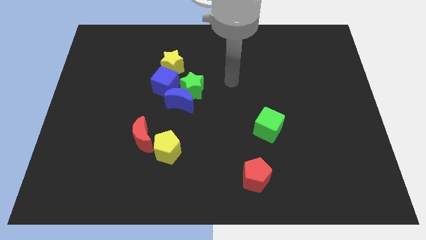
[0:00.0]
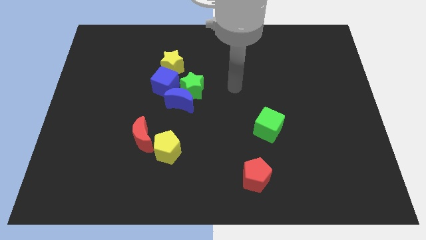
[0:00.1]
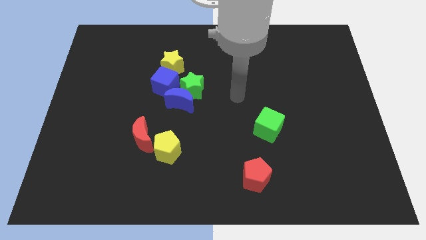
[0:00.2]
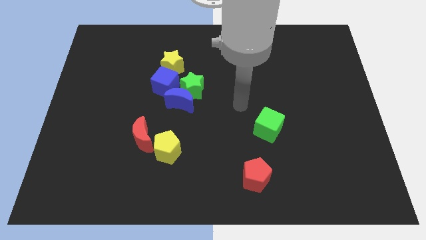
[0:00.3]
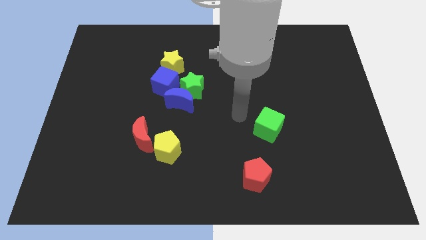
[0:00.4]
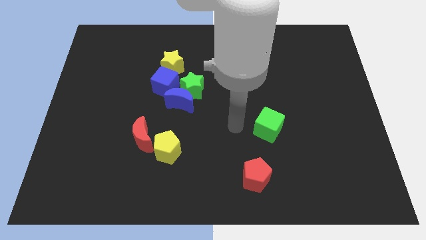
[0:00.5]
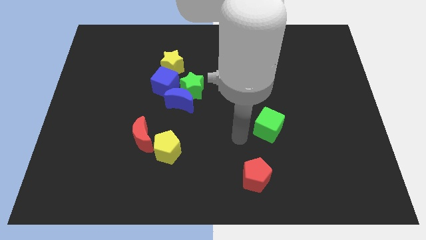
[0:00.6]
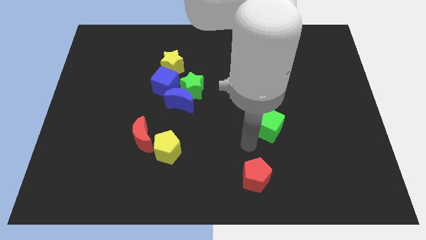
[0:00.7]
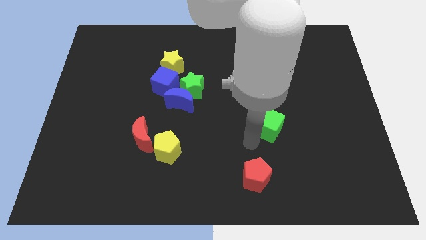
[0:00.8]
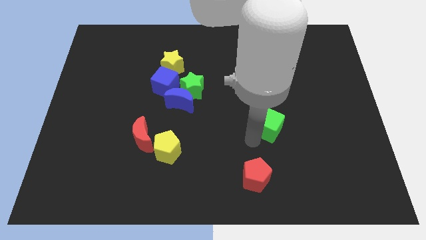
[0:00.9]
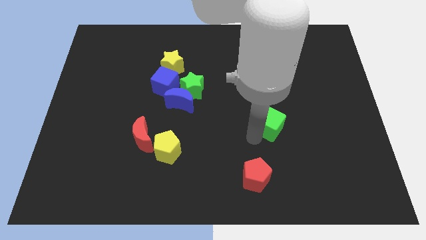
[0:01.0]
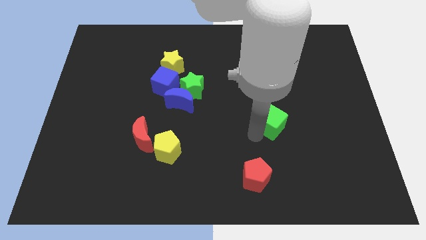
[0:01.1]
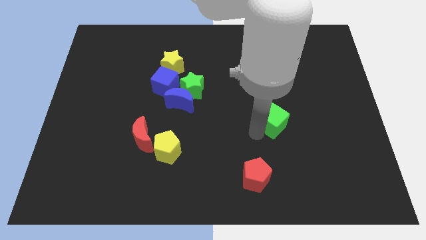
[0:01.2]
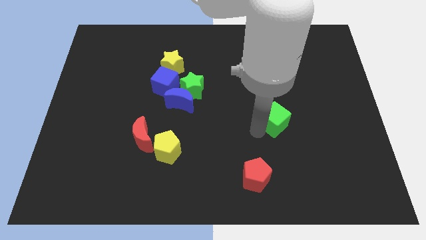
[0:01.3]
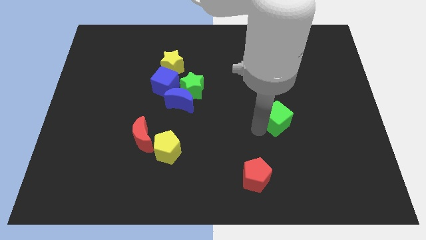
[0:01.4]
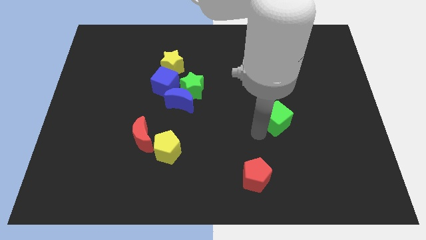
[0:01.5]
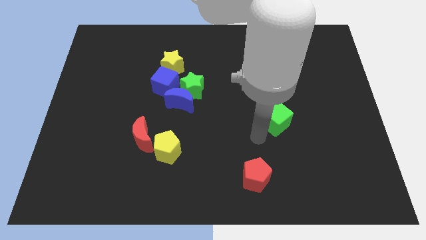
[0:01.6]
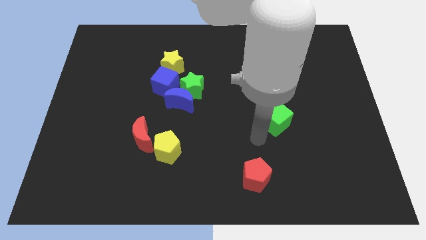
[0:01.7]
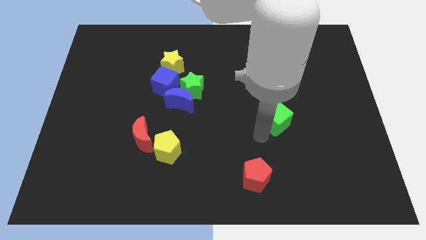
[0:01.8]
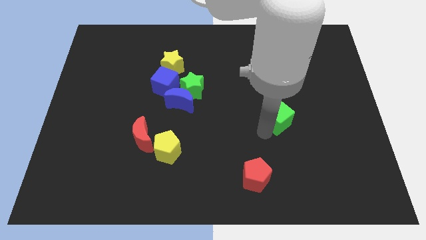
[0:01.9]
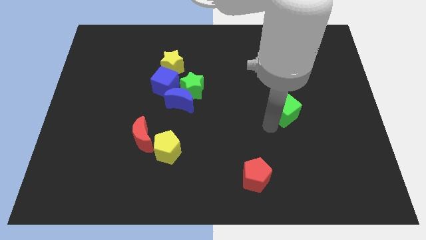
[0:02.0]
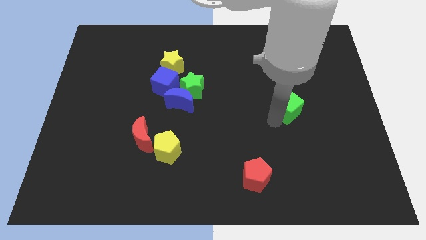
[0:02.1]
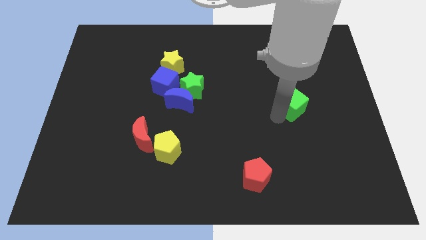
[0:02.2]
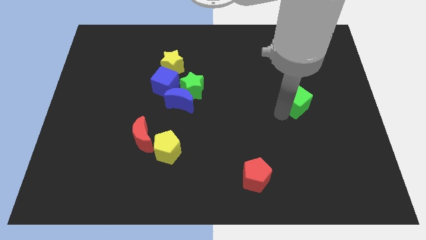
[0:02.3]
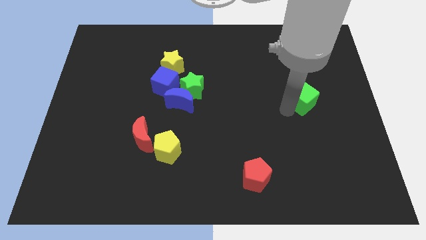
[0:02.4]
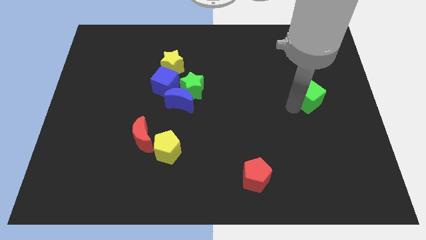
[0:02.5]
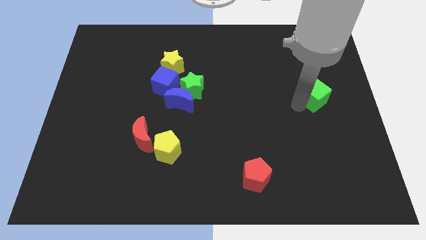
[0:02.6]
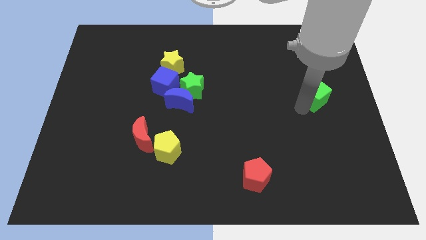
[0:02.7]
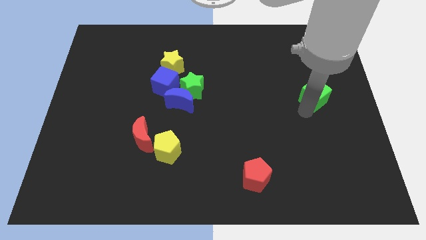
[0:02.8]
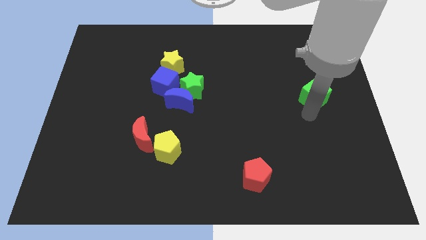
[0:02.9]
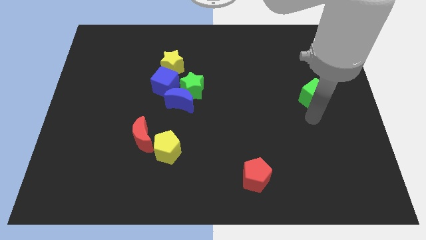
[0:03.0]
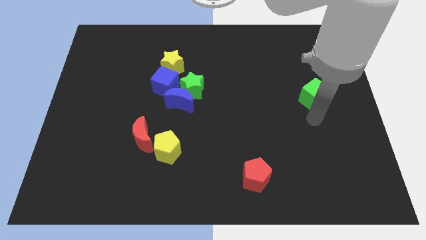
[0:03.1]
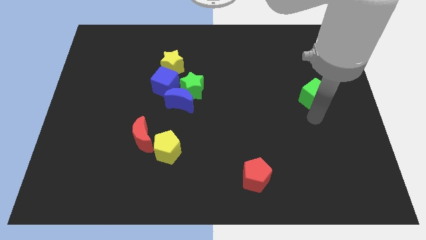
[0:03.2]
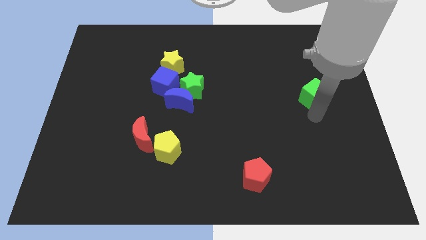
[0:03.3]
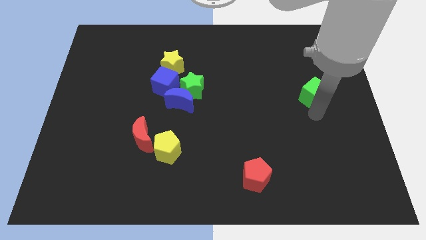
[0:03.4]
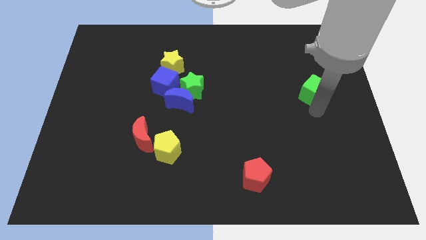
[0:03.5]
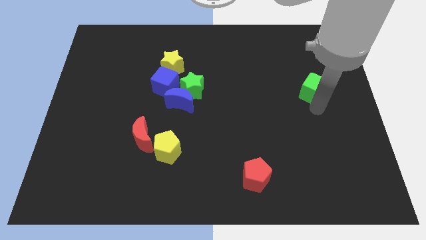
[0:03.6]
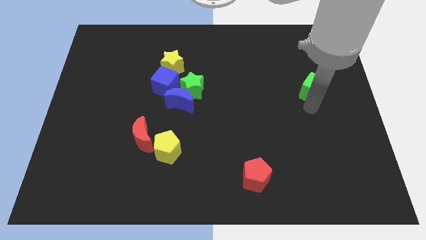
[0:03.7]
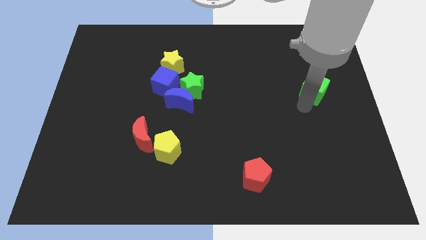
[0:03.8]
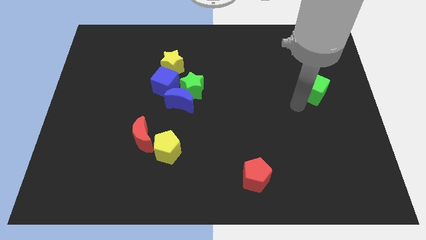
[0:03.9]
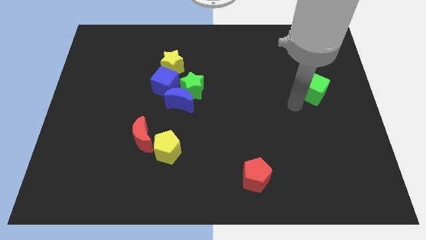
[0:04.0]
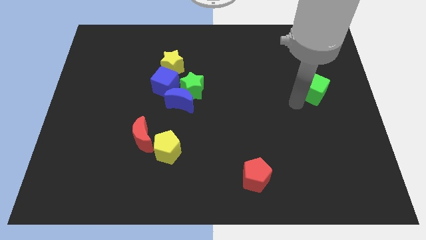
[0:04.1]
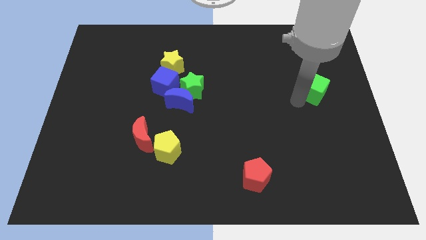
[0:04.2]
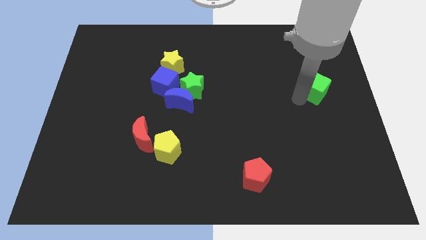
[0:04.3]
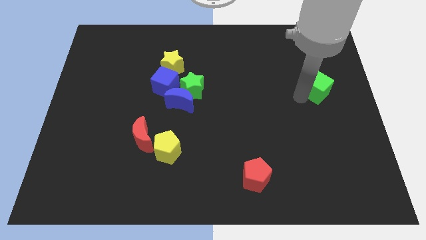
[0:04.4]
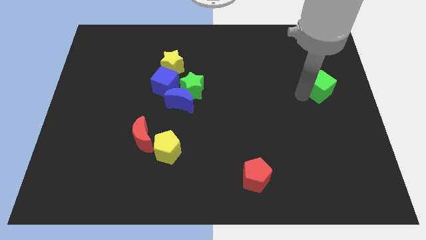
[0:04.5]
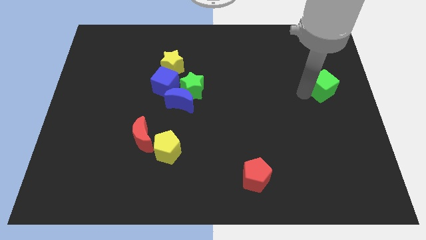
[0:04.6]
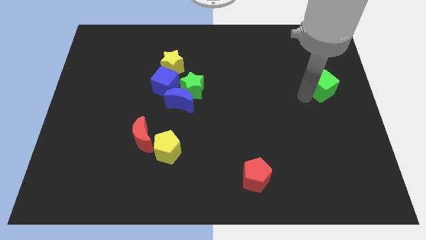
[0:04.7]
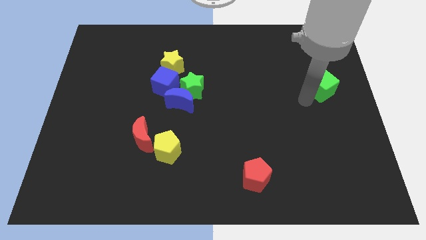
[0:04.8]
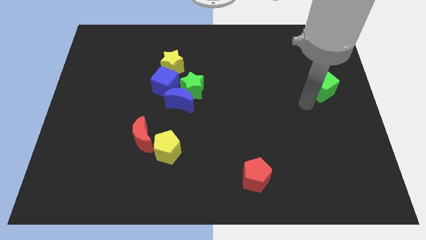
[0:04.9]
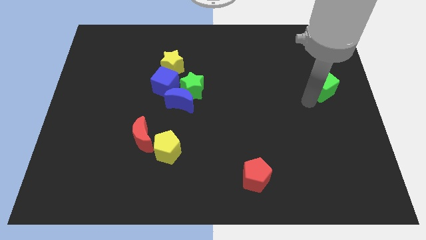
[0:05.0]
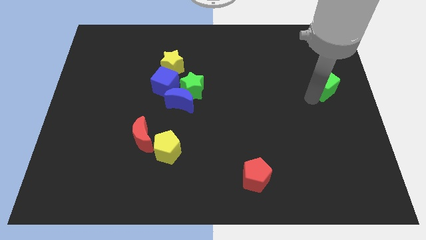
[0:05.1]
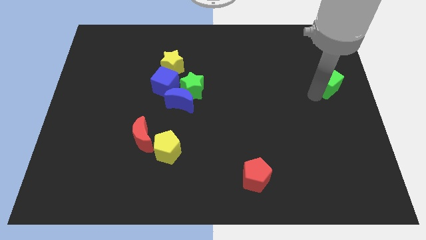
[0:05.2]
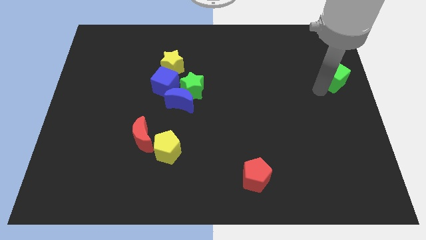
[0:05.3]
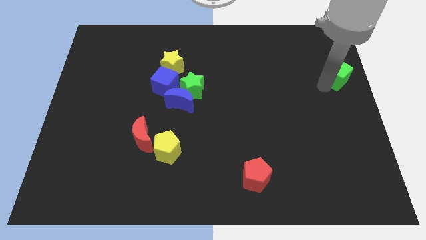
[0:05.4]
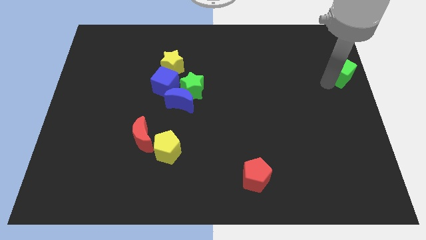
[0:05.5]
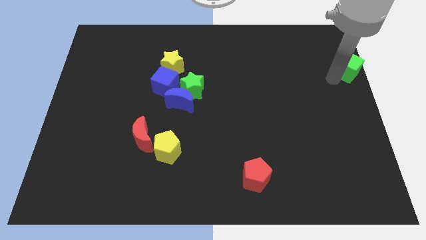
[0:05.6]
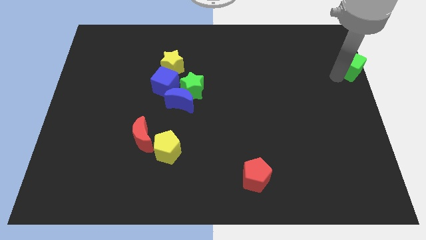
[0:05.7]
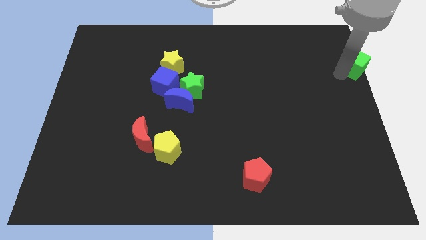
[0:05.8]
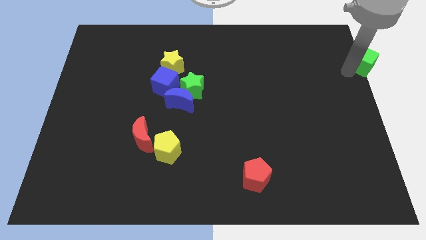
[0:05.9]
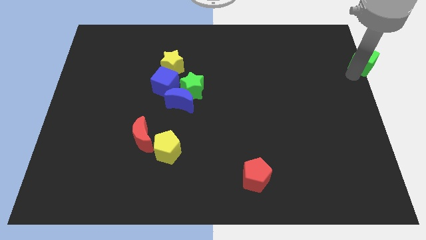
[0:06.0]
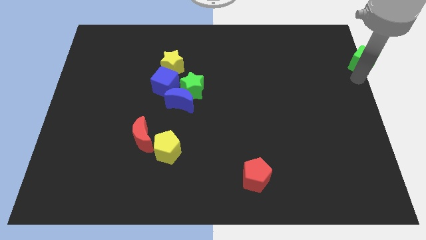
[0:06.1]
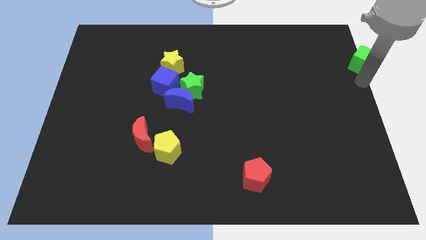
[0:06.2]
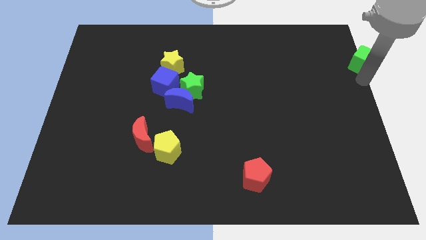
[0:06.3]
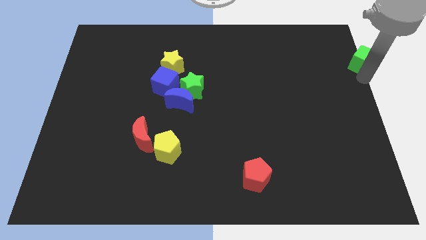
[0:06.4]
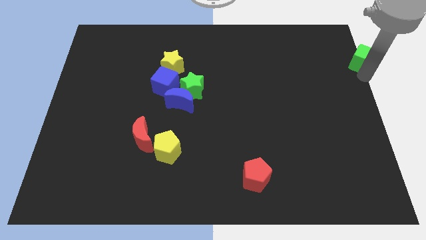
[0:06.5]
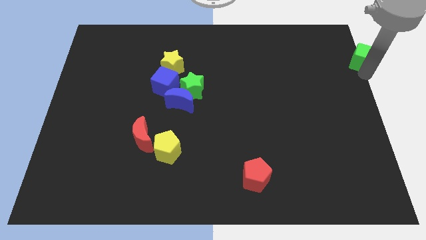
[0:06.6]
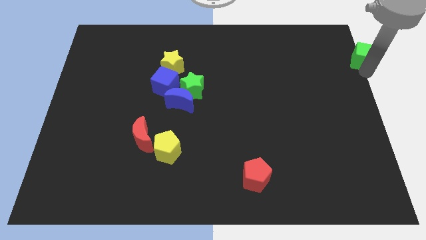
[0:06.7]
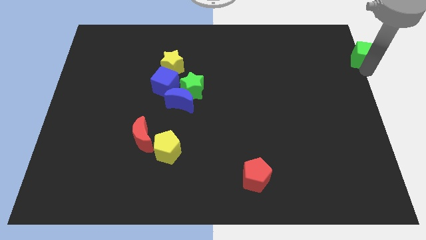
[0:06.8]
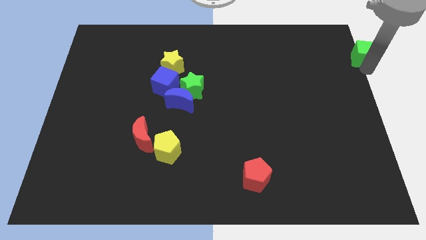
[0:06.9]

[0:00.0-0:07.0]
slide the green cube to the top right of the board
